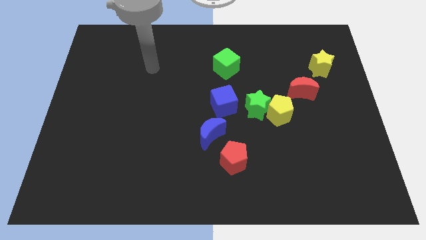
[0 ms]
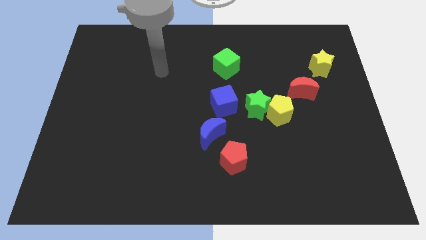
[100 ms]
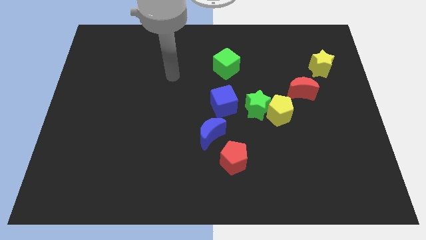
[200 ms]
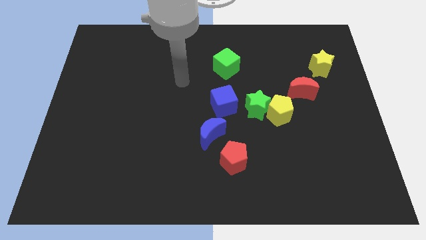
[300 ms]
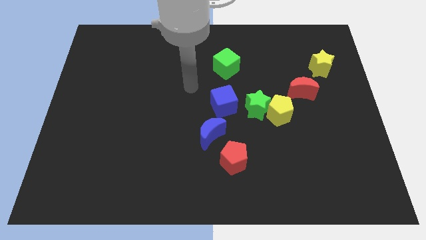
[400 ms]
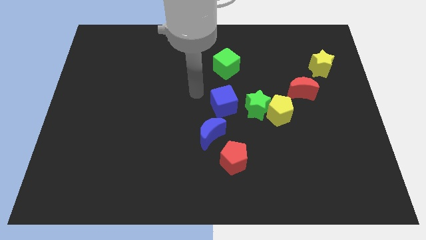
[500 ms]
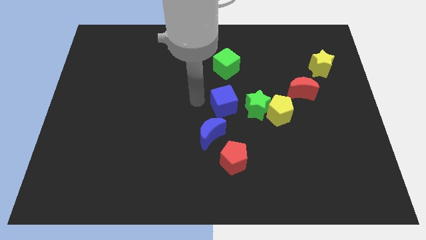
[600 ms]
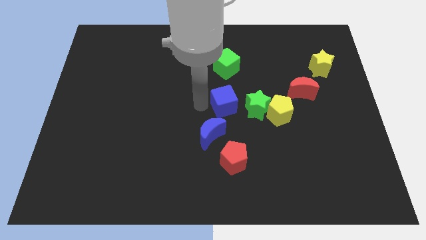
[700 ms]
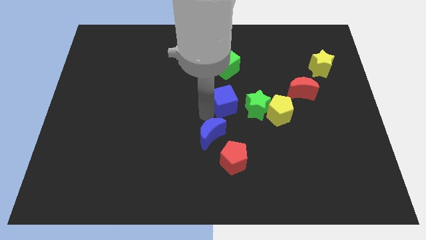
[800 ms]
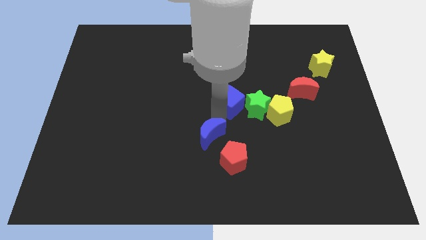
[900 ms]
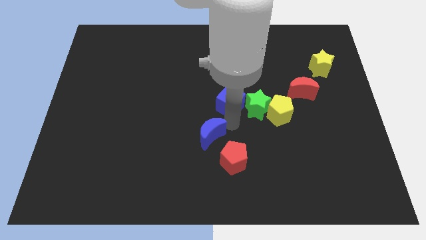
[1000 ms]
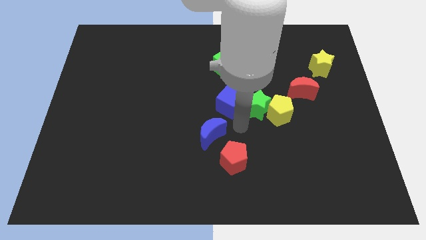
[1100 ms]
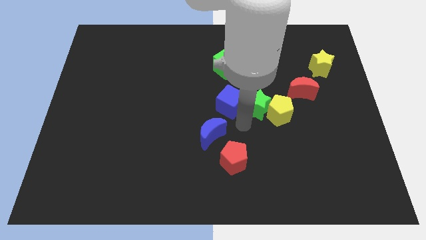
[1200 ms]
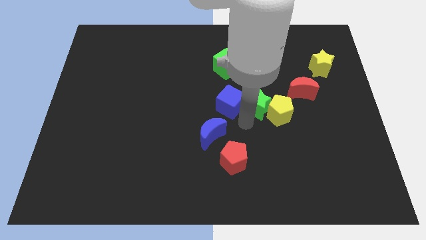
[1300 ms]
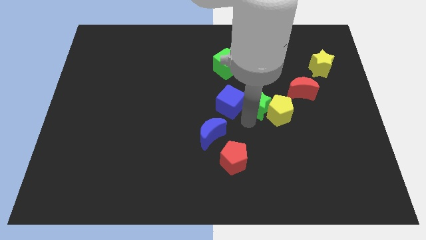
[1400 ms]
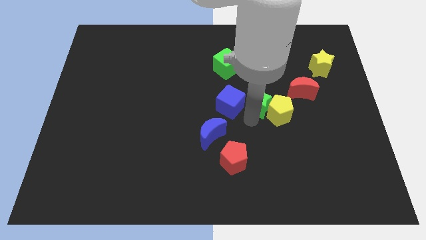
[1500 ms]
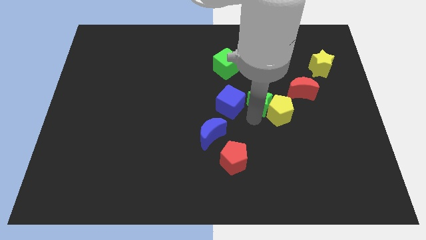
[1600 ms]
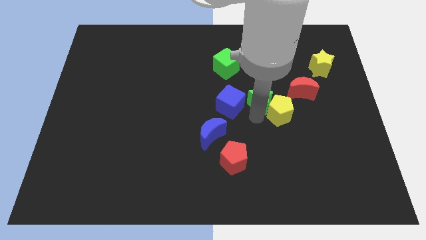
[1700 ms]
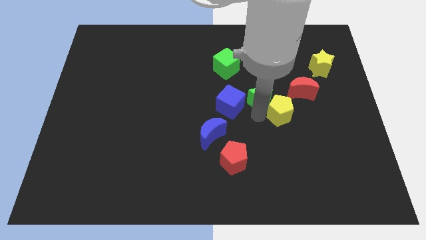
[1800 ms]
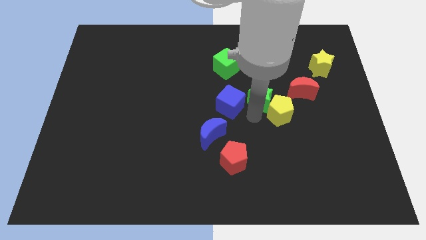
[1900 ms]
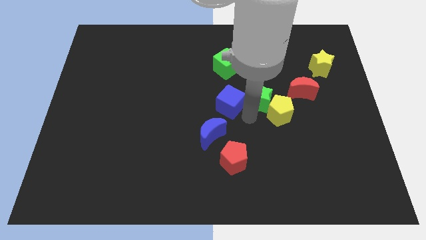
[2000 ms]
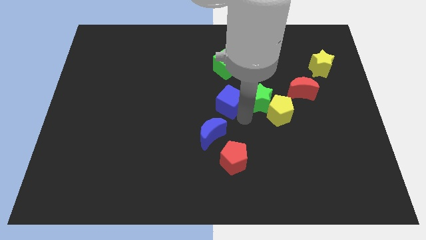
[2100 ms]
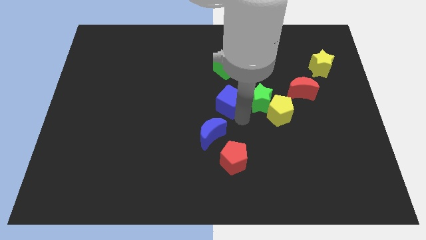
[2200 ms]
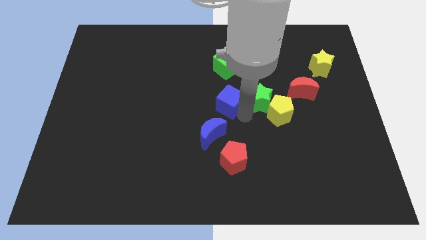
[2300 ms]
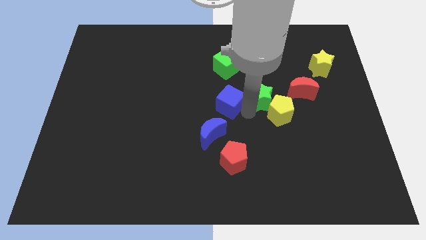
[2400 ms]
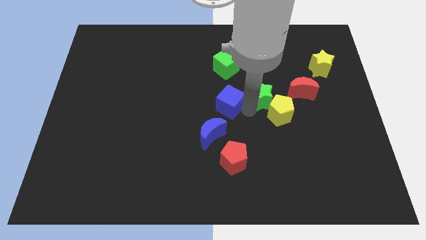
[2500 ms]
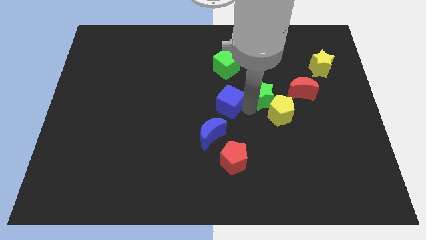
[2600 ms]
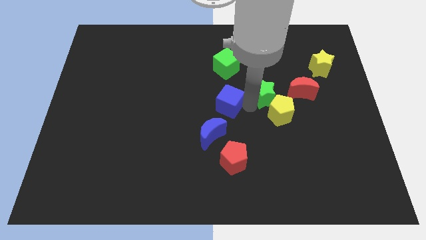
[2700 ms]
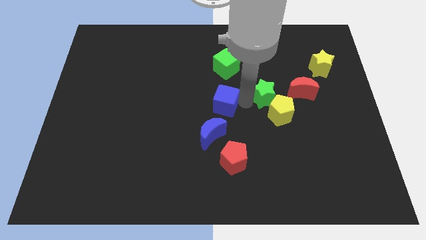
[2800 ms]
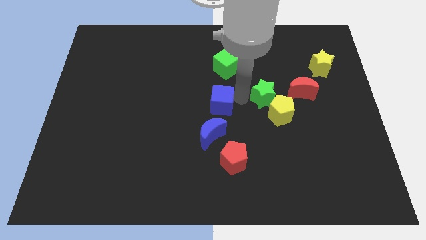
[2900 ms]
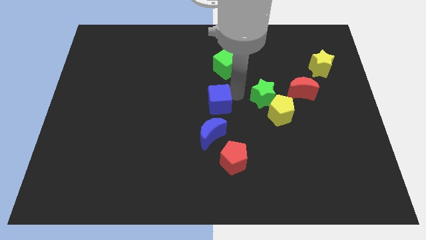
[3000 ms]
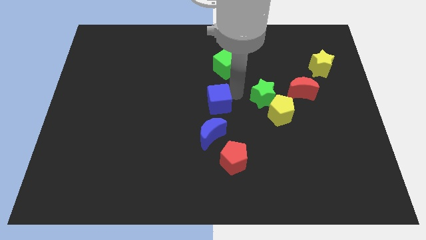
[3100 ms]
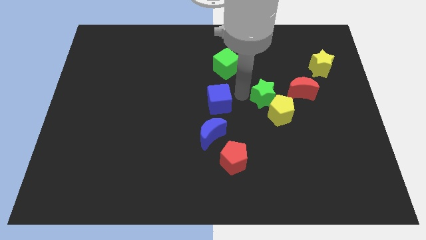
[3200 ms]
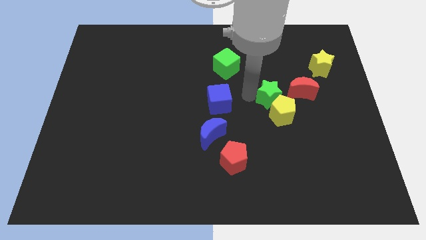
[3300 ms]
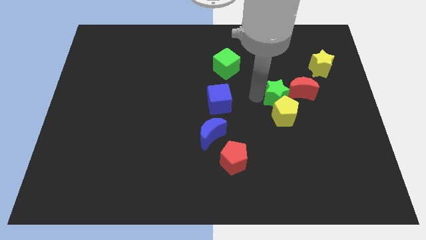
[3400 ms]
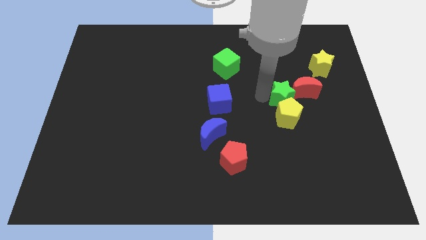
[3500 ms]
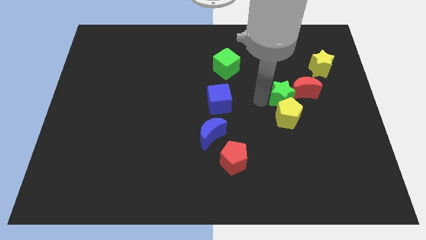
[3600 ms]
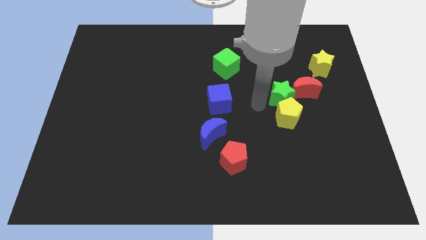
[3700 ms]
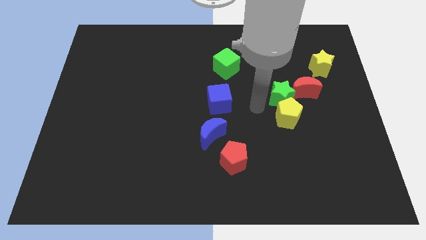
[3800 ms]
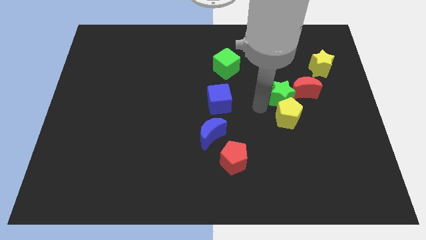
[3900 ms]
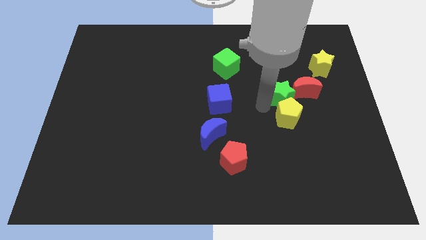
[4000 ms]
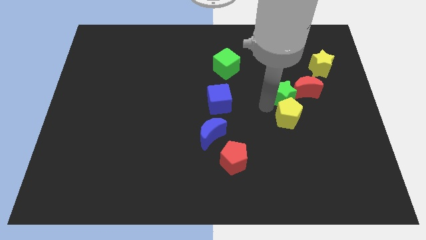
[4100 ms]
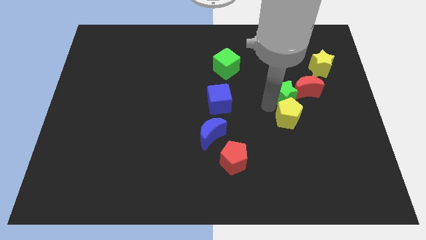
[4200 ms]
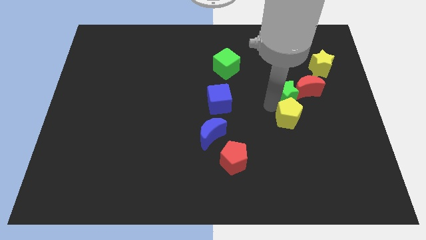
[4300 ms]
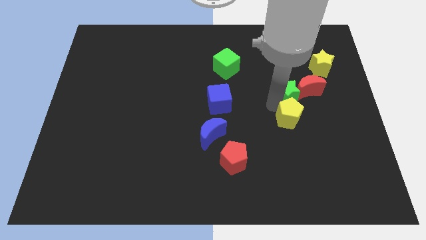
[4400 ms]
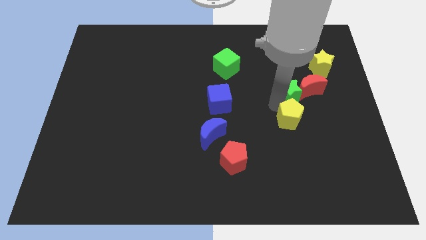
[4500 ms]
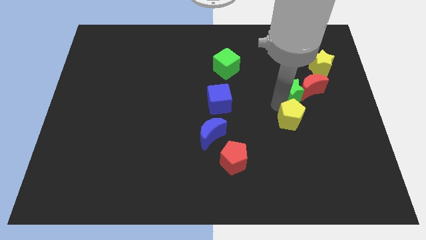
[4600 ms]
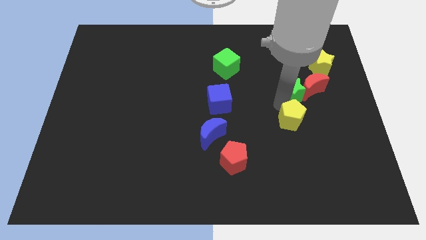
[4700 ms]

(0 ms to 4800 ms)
move the green star away from the yellow pentagon and blue cube

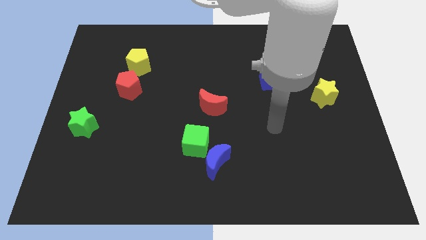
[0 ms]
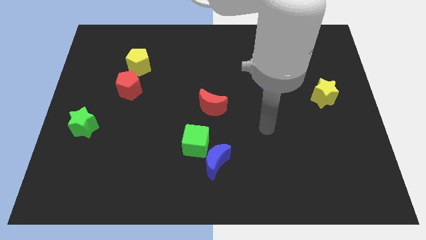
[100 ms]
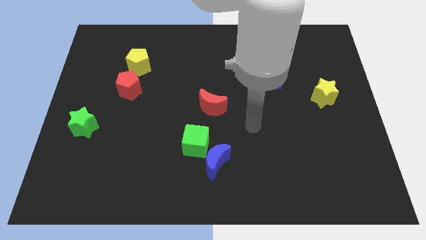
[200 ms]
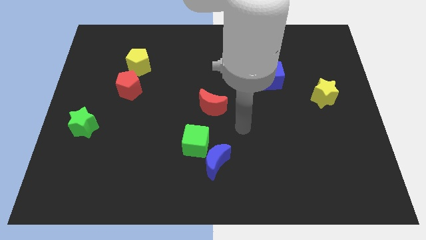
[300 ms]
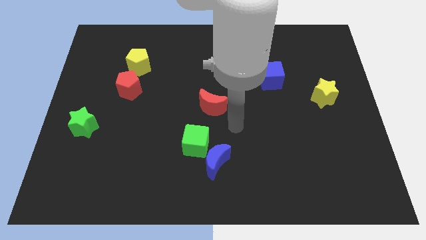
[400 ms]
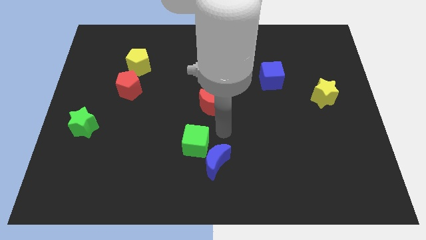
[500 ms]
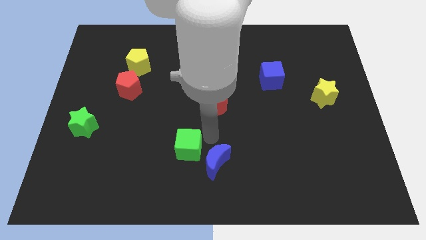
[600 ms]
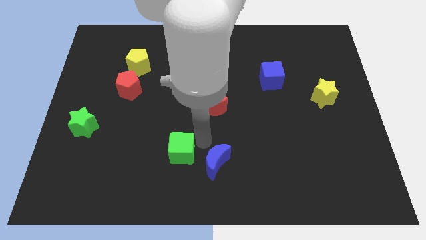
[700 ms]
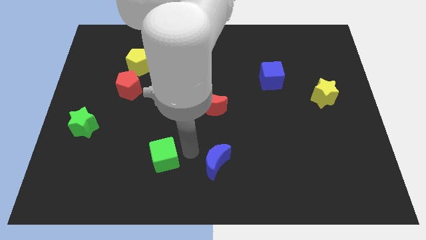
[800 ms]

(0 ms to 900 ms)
separate the blue moon from the green cube

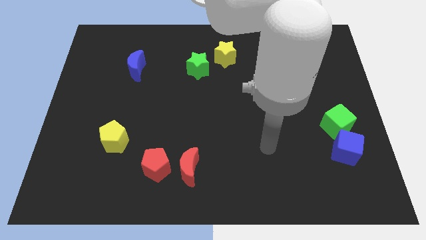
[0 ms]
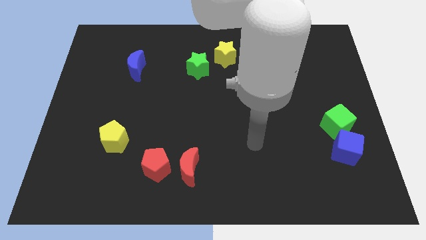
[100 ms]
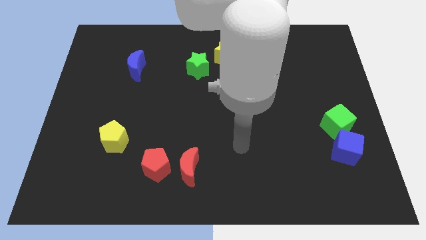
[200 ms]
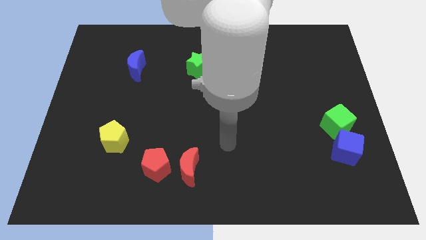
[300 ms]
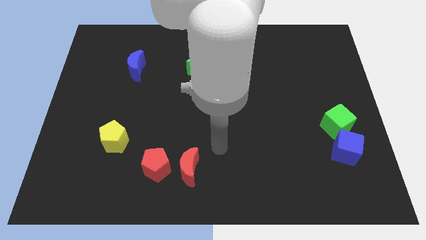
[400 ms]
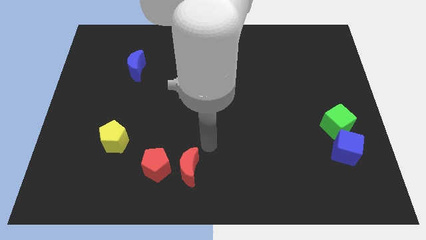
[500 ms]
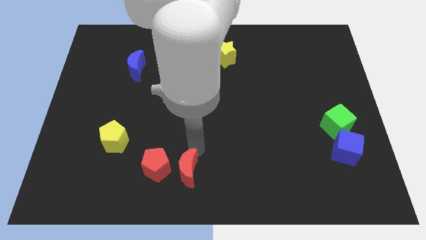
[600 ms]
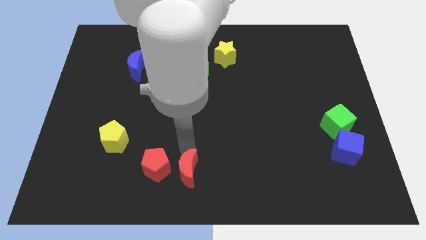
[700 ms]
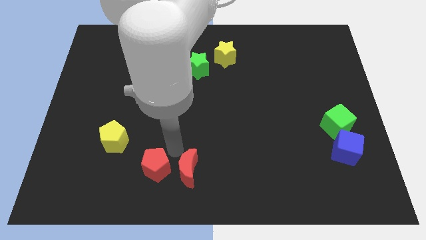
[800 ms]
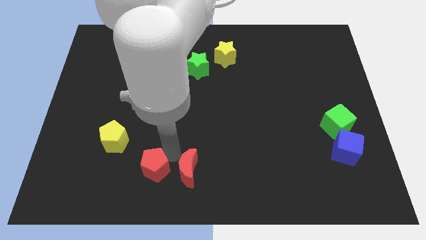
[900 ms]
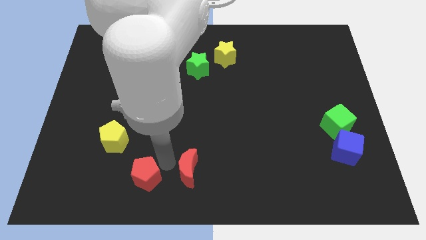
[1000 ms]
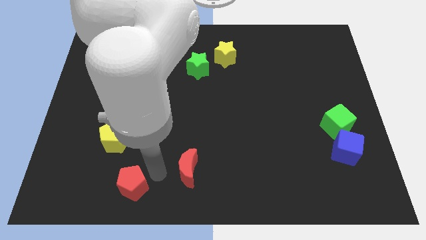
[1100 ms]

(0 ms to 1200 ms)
separate the red moon from the red pentagon

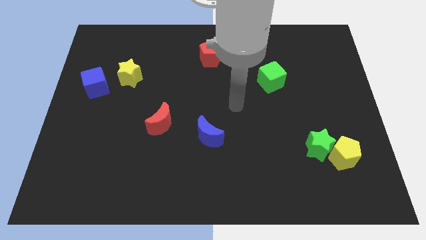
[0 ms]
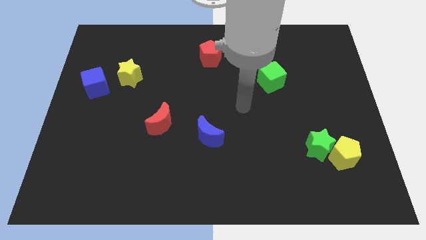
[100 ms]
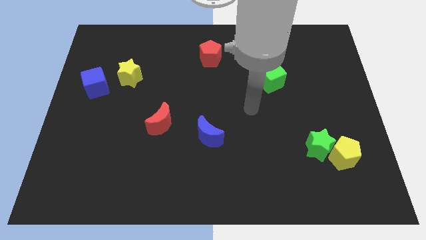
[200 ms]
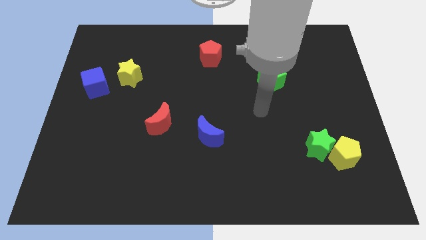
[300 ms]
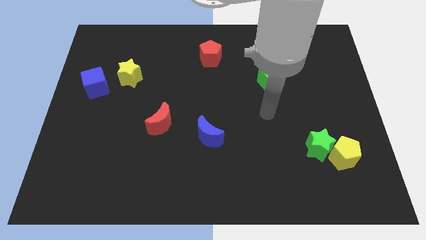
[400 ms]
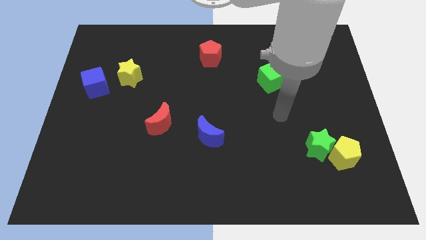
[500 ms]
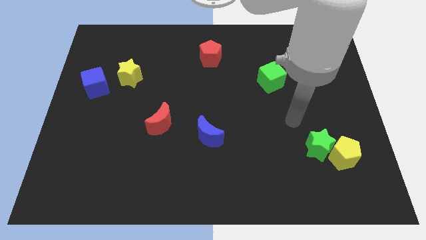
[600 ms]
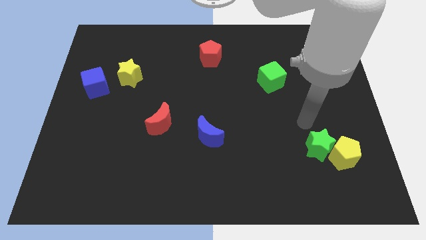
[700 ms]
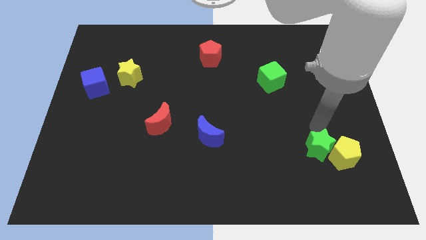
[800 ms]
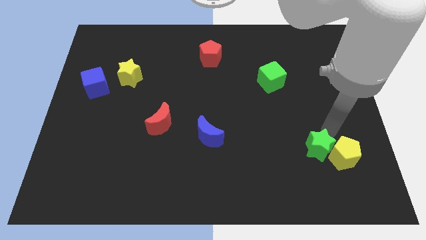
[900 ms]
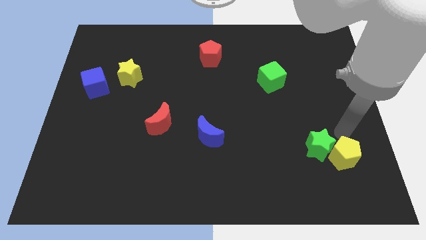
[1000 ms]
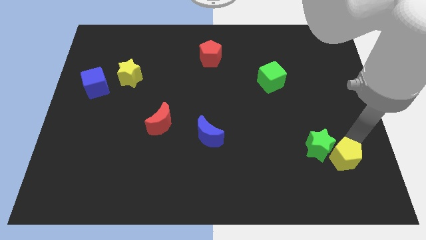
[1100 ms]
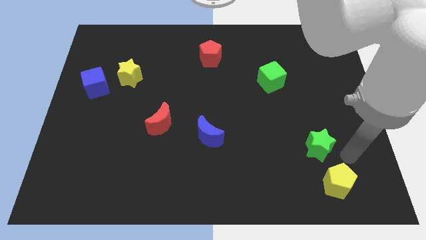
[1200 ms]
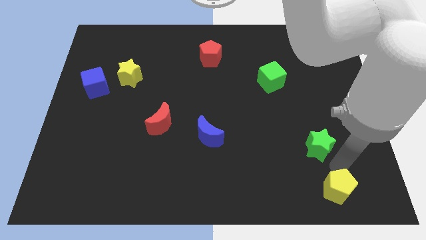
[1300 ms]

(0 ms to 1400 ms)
pull the green star apart from the yellow pentagon

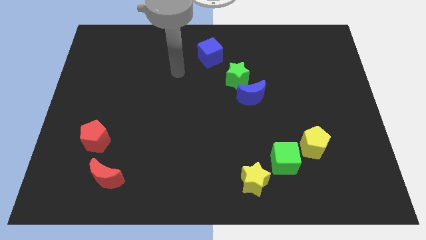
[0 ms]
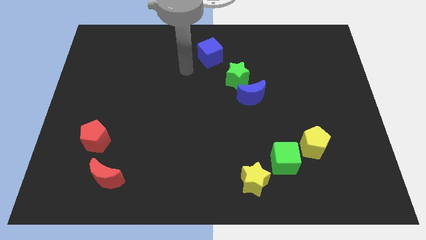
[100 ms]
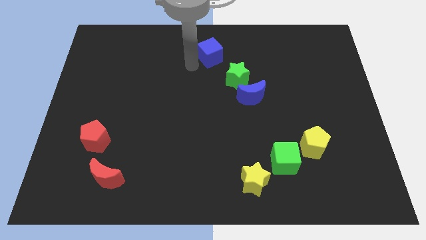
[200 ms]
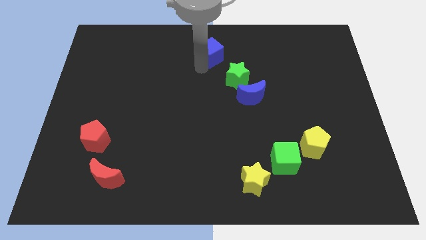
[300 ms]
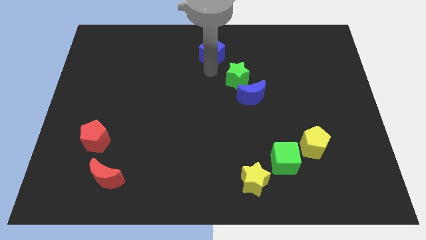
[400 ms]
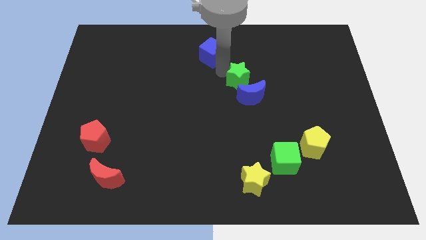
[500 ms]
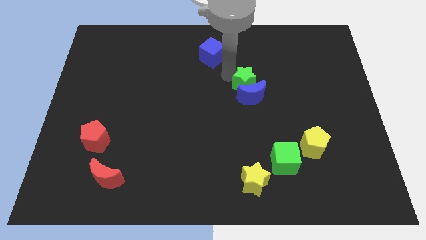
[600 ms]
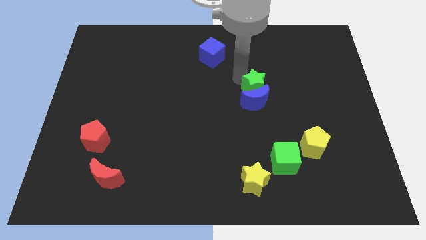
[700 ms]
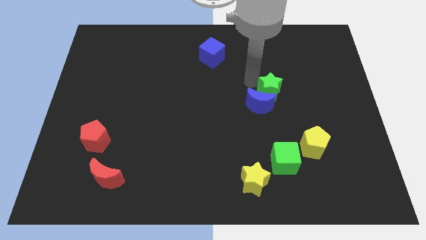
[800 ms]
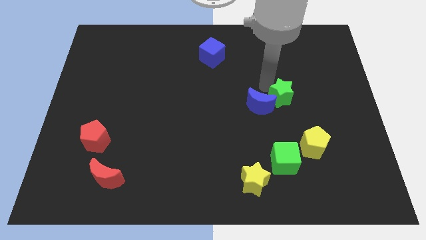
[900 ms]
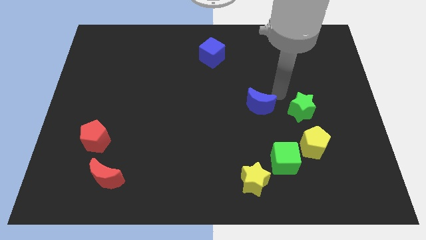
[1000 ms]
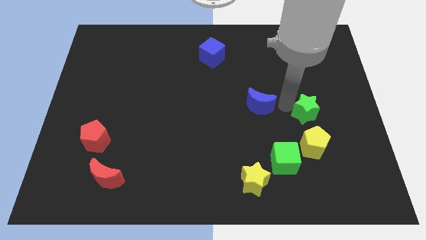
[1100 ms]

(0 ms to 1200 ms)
pull the blue moon apart from the green star
